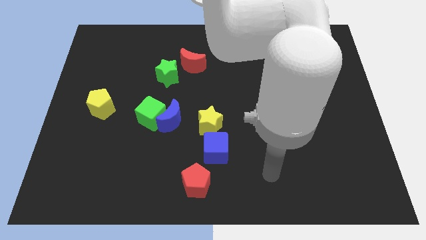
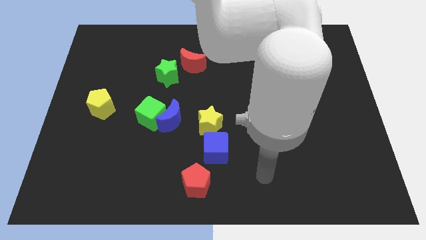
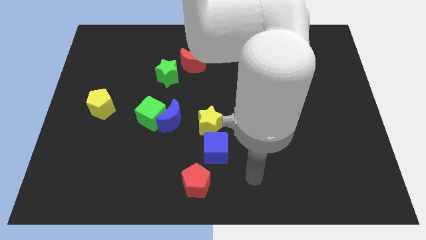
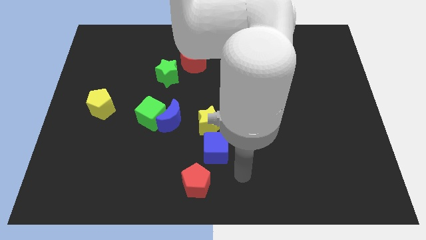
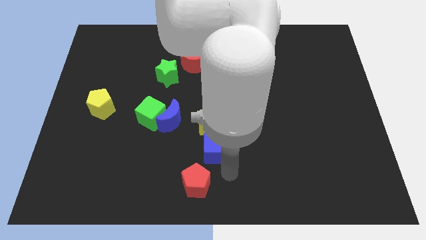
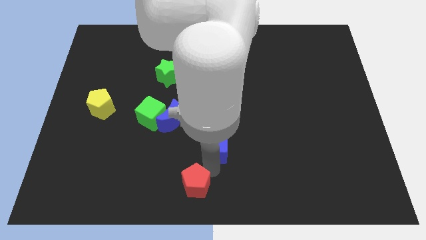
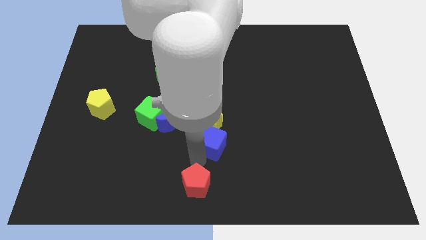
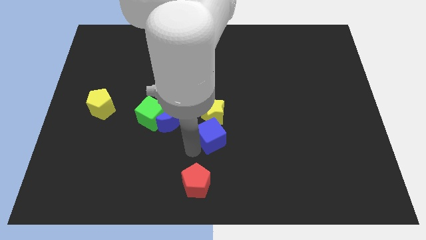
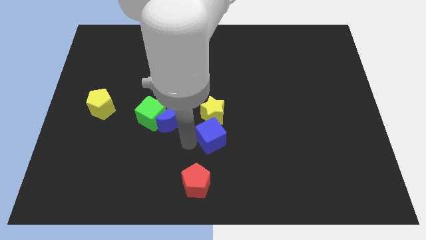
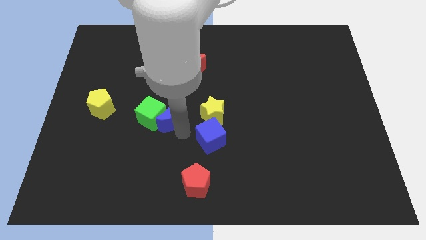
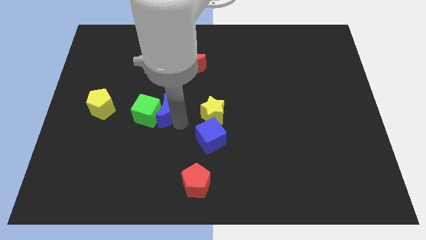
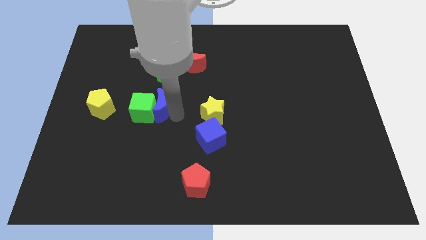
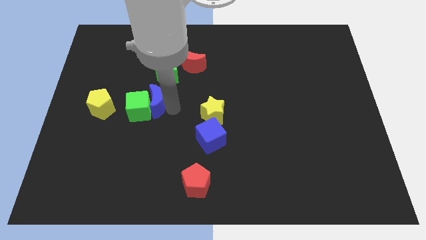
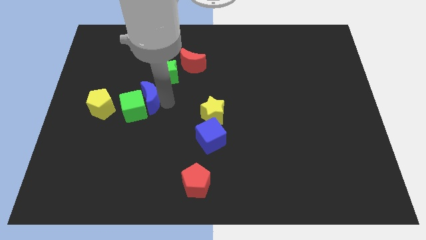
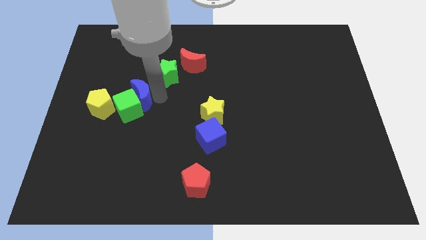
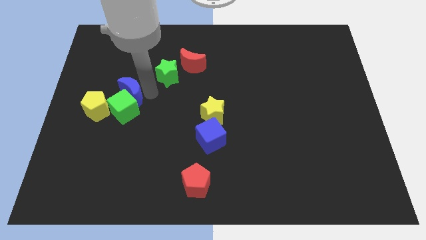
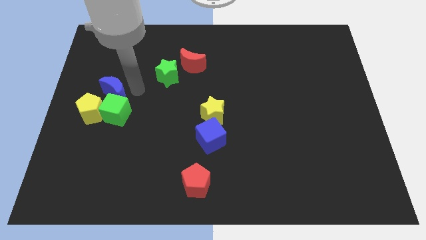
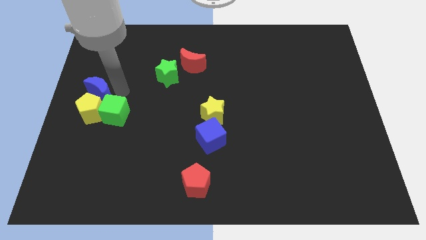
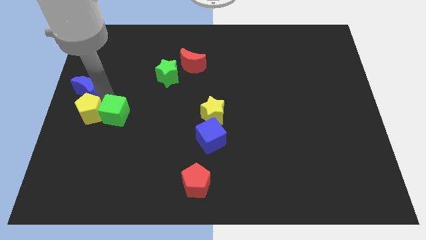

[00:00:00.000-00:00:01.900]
separate the green cube from the blue moon

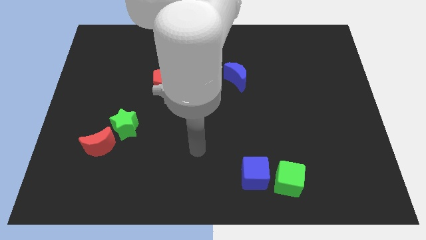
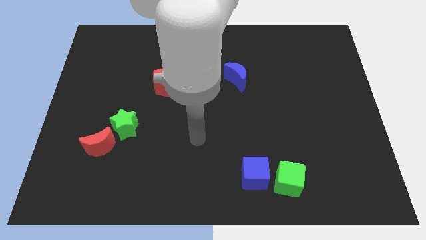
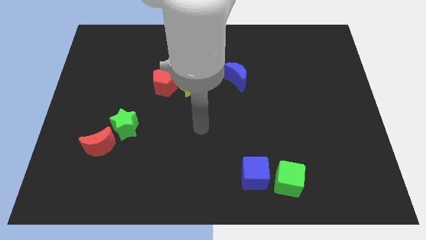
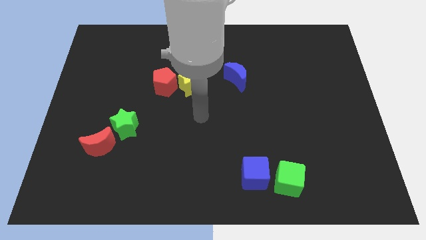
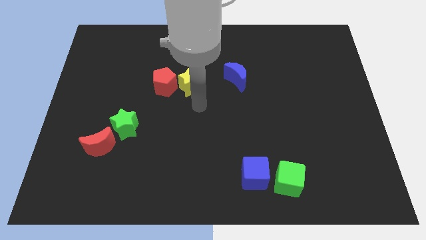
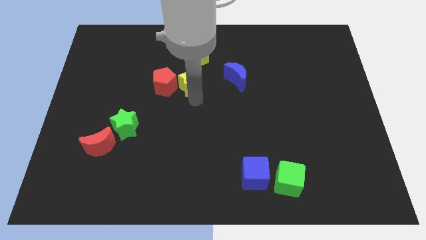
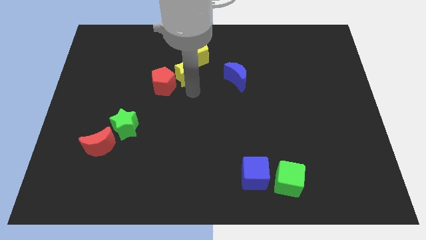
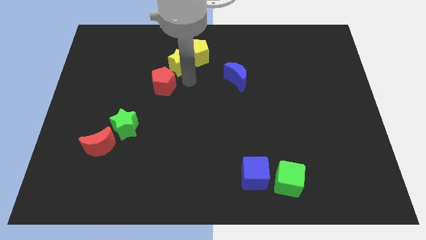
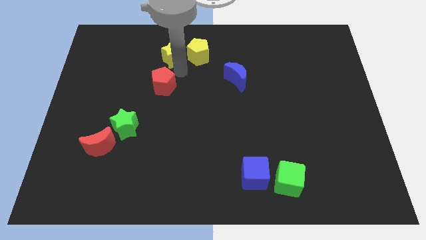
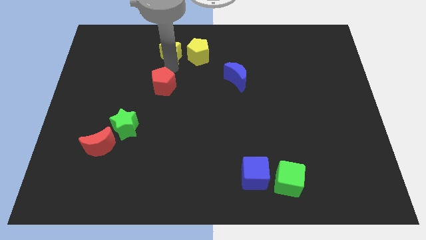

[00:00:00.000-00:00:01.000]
move the red pentagon away from the yellow star

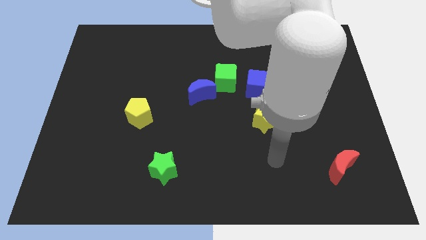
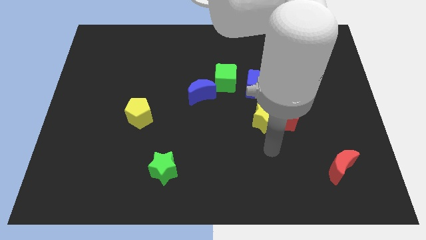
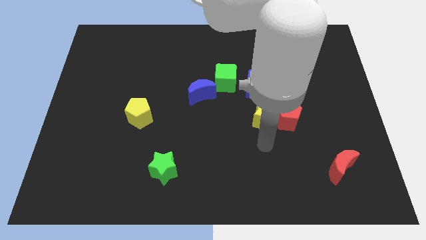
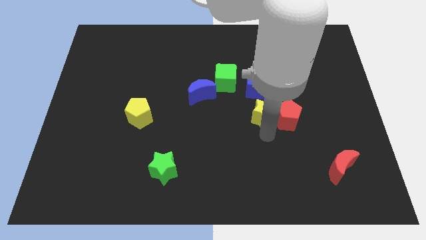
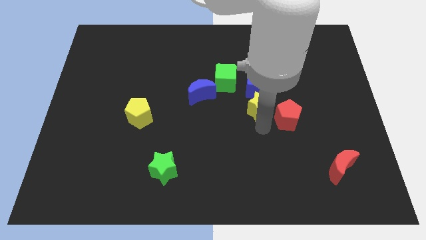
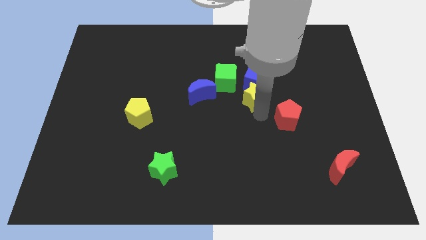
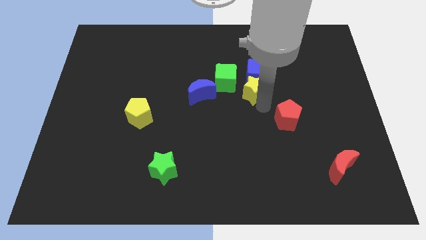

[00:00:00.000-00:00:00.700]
separate the red pentagon from the yellow star

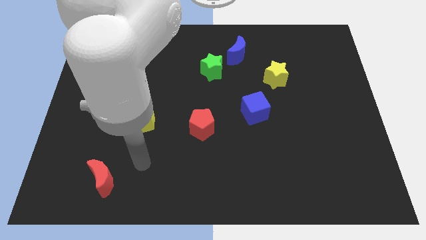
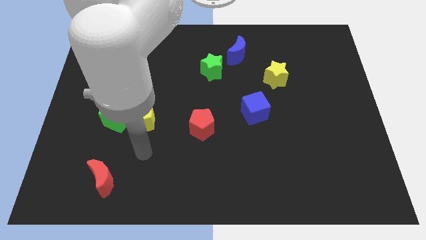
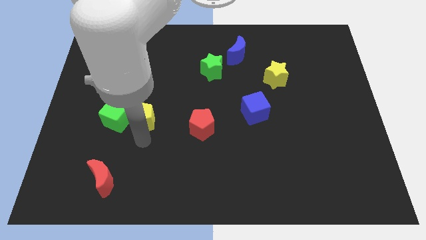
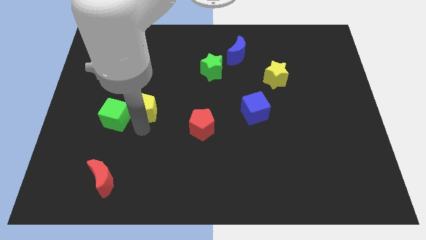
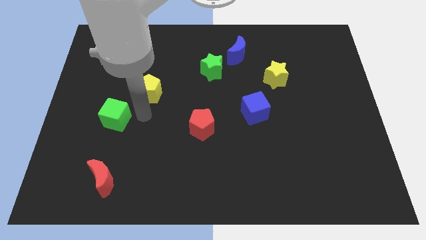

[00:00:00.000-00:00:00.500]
move the green cube away from the yellow pentagon

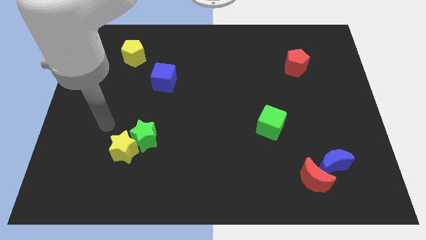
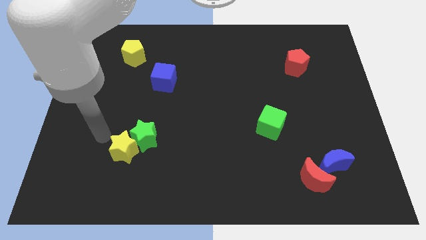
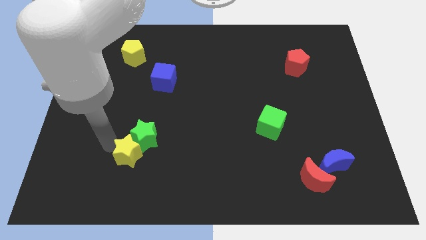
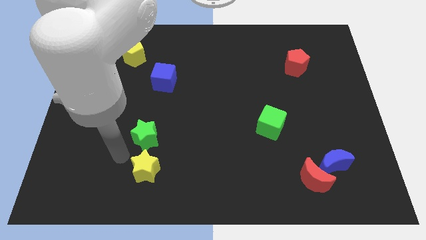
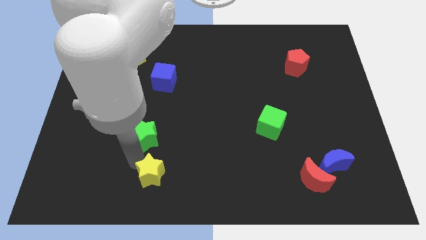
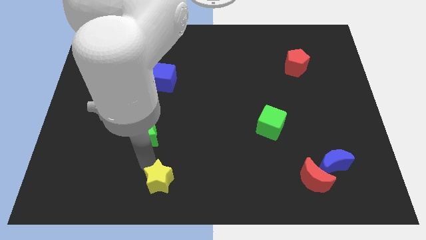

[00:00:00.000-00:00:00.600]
move the green star away from the yellow star

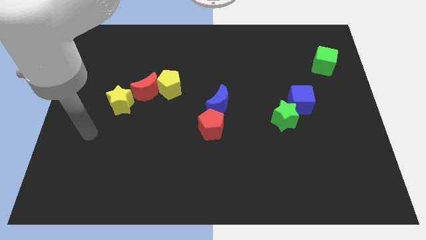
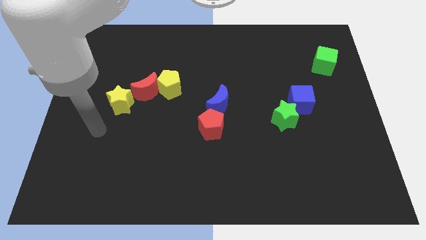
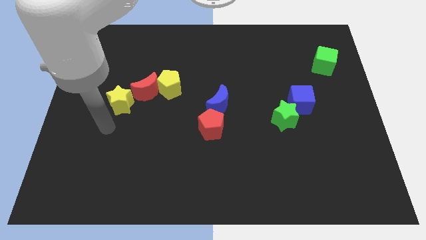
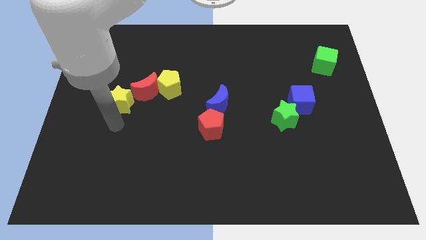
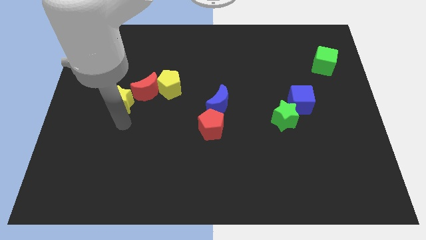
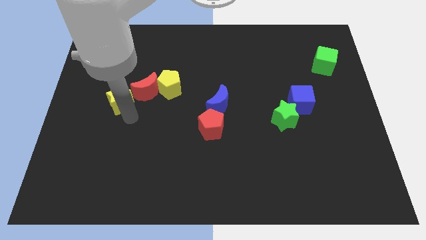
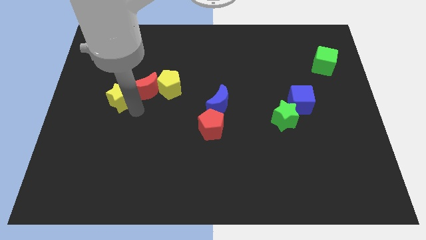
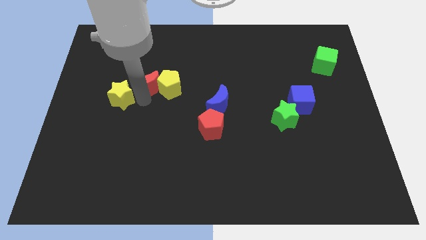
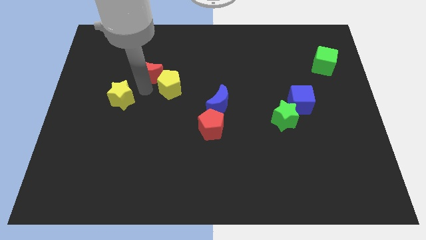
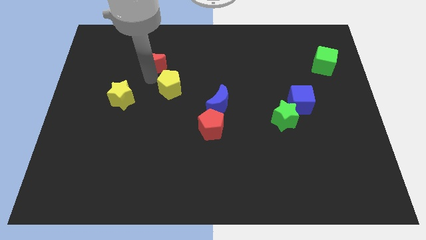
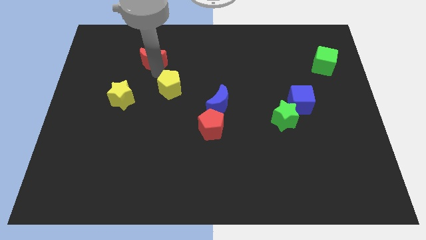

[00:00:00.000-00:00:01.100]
pull the yellow pentagon apart from the red moon

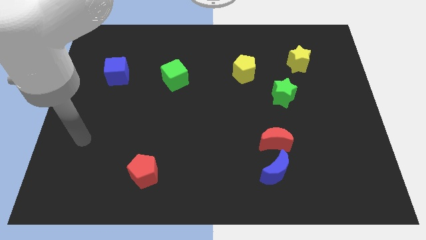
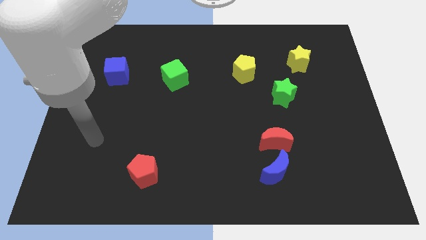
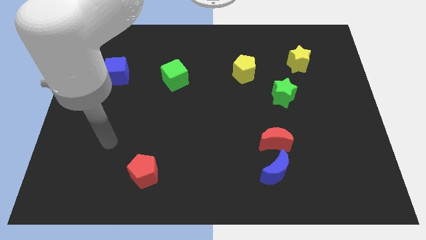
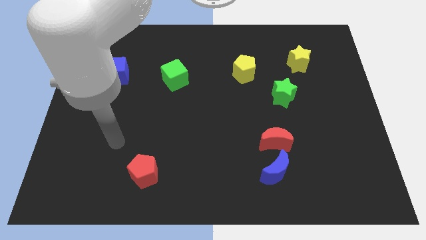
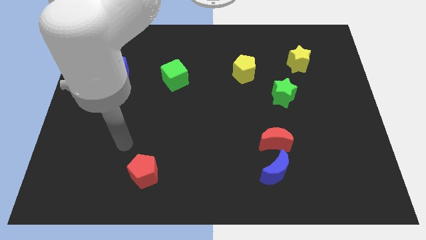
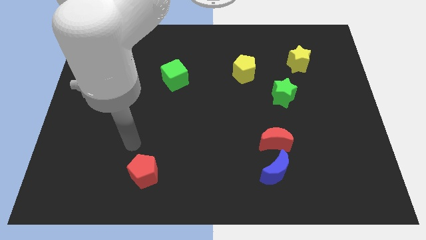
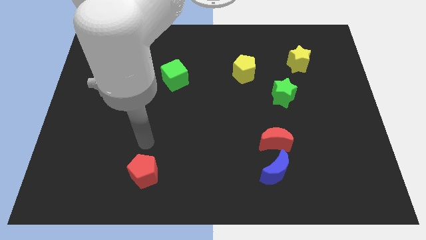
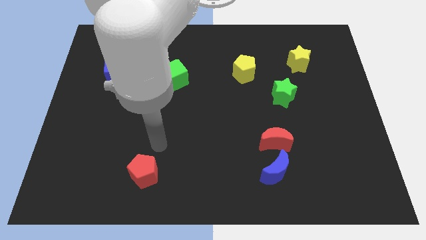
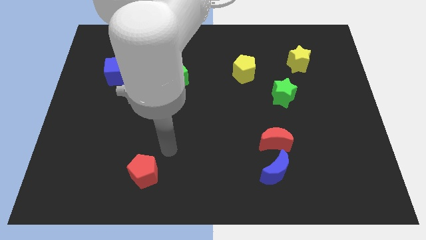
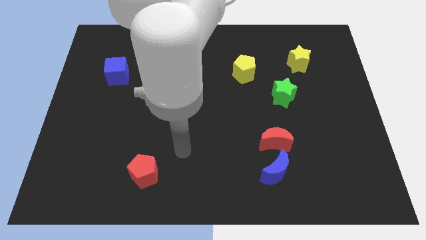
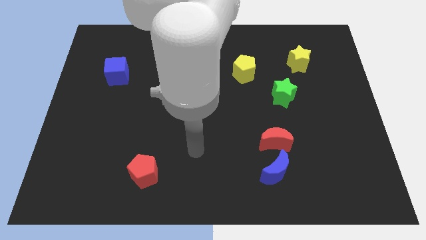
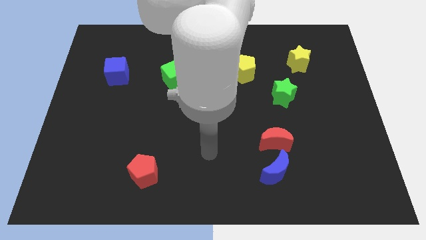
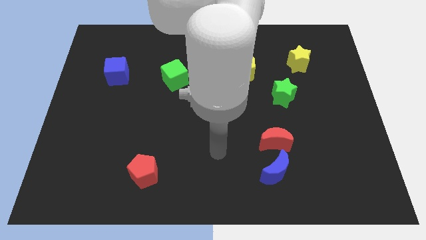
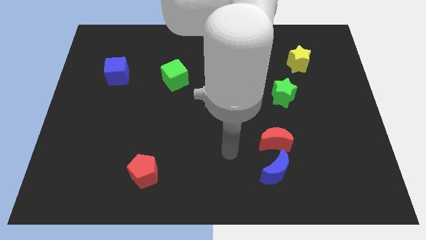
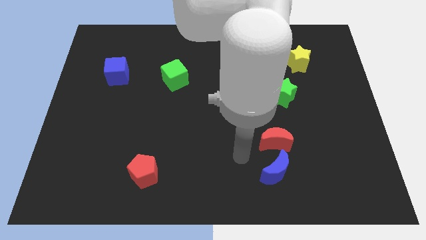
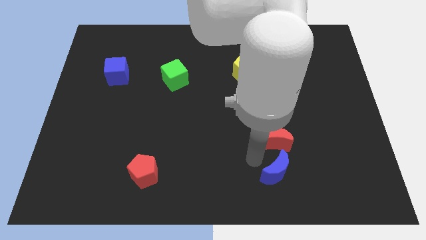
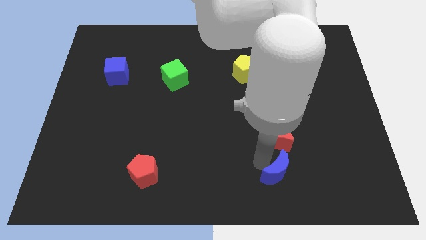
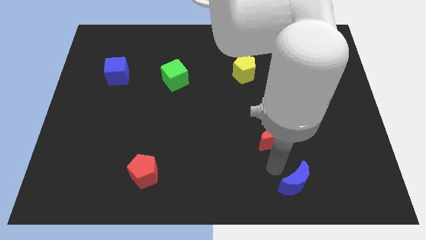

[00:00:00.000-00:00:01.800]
pull the red moon apart from the blue moon

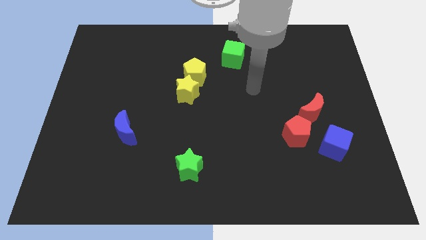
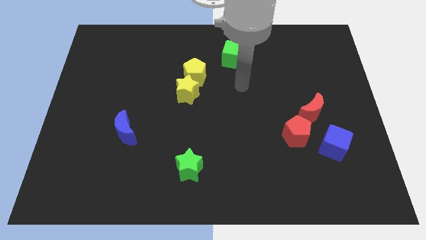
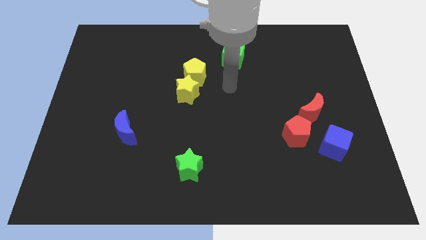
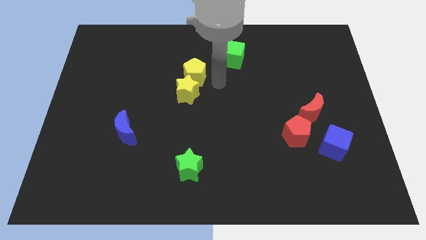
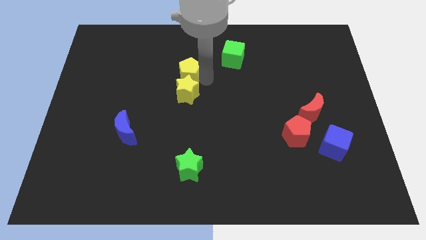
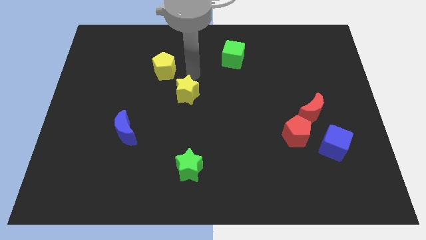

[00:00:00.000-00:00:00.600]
move the yellow star away from the yellow pentagon

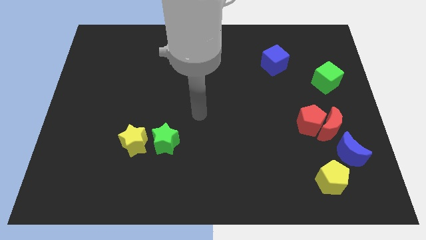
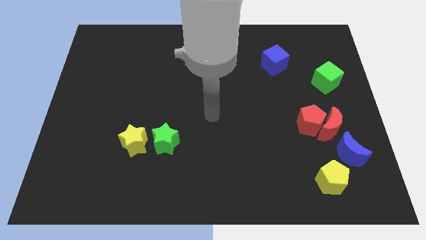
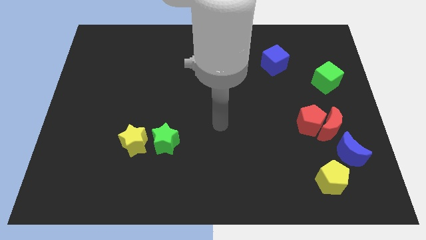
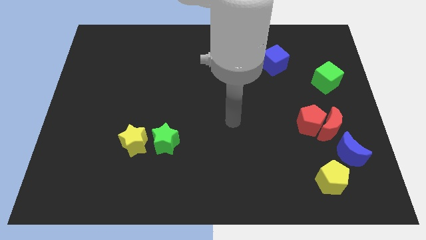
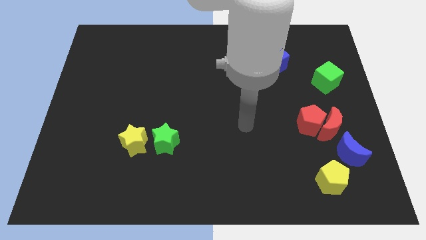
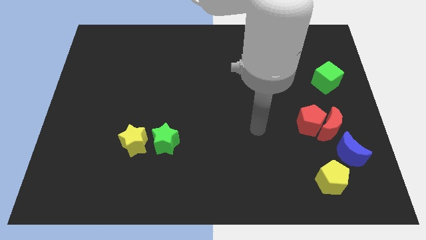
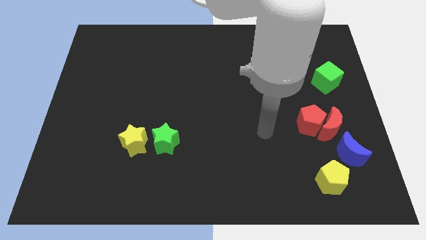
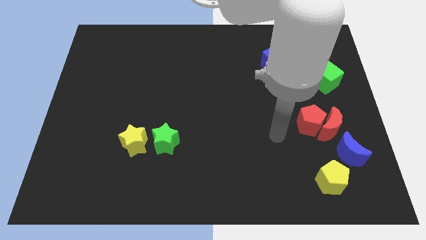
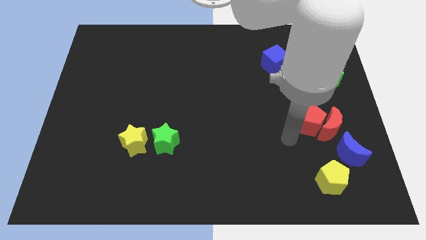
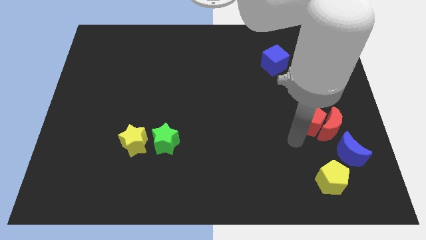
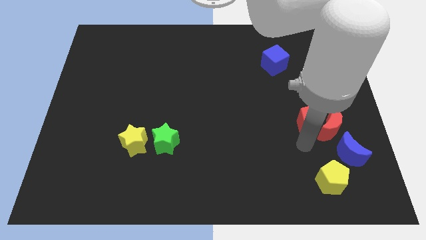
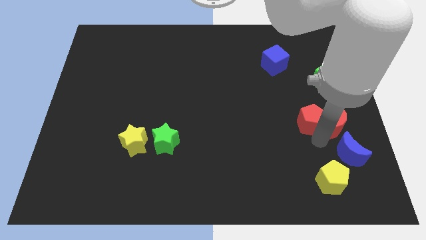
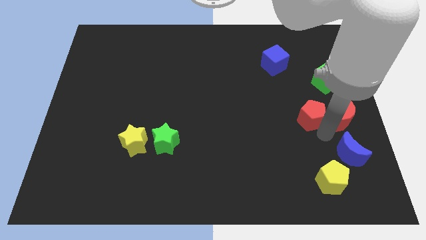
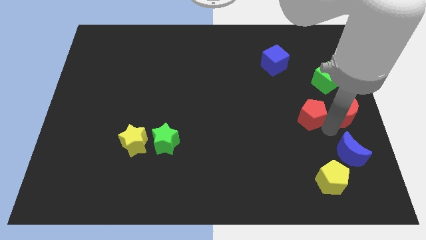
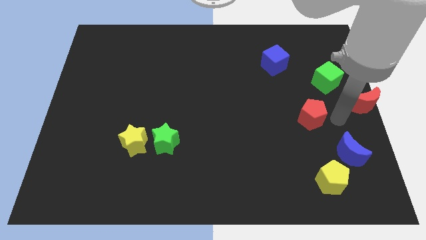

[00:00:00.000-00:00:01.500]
separate the red pentagon from the red moon
